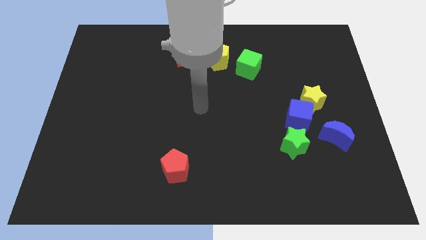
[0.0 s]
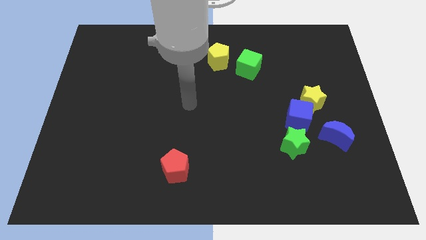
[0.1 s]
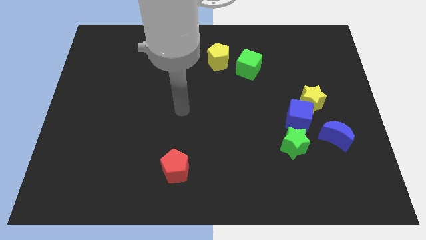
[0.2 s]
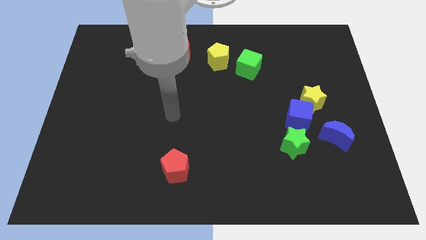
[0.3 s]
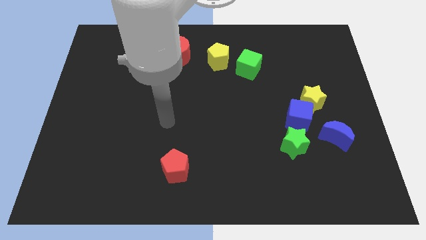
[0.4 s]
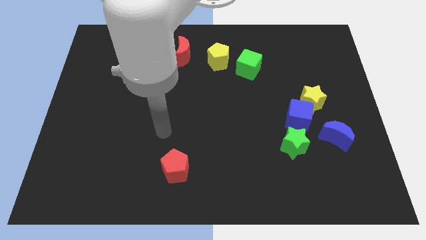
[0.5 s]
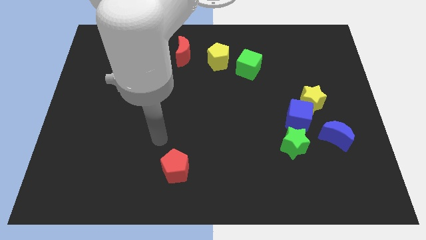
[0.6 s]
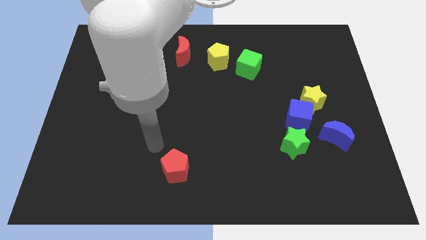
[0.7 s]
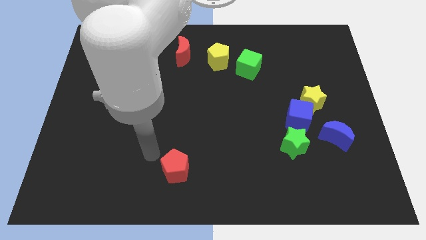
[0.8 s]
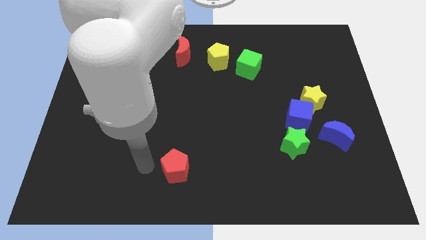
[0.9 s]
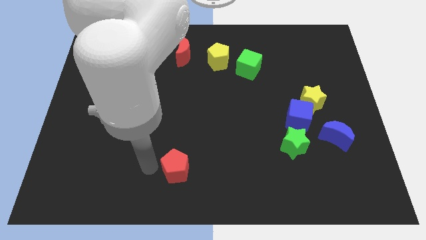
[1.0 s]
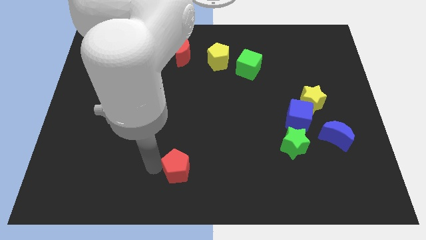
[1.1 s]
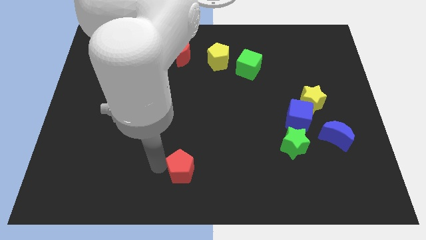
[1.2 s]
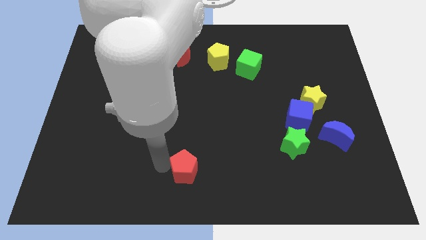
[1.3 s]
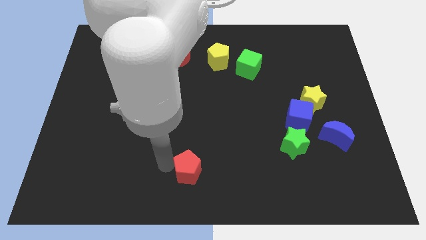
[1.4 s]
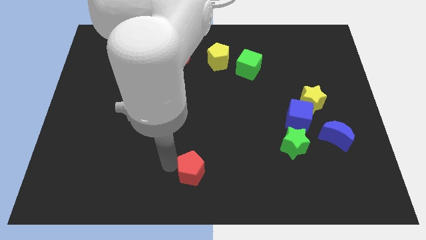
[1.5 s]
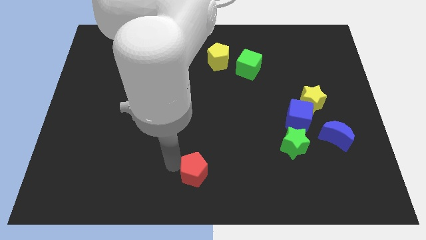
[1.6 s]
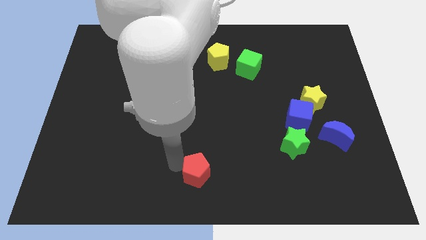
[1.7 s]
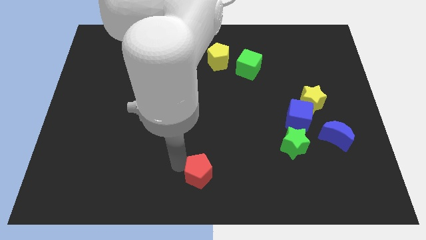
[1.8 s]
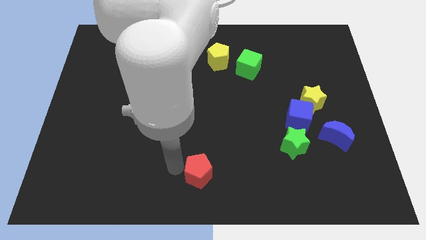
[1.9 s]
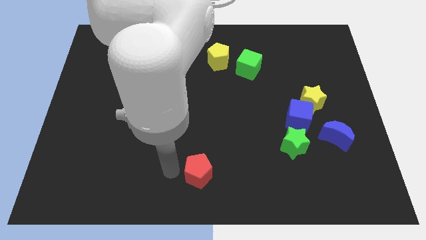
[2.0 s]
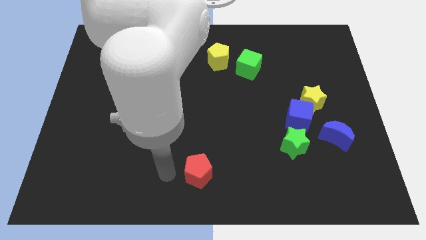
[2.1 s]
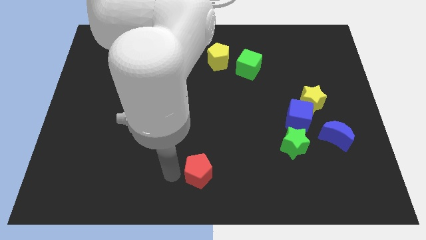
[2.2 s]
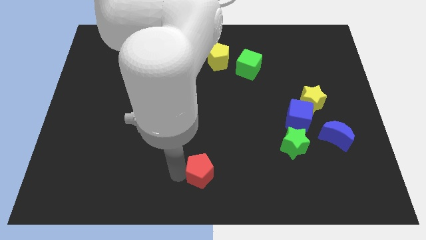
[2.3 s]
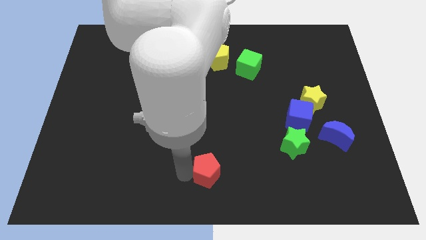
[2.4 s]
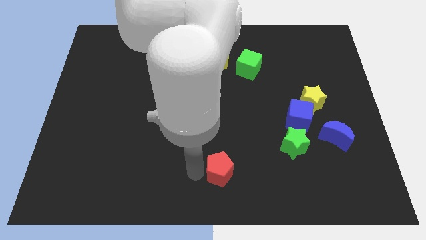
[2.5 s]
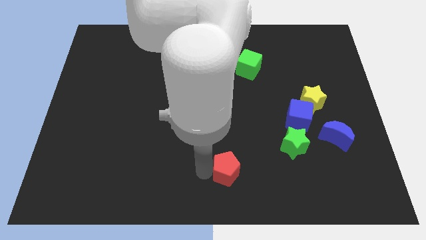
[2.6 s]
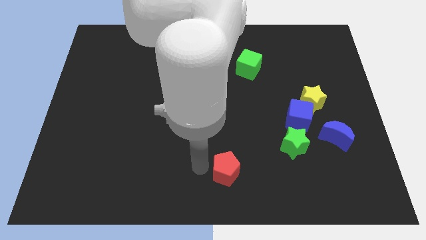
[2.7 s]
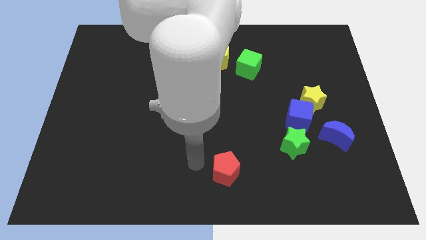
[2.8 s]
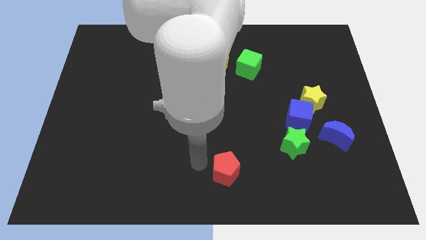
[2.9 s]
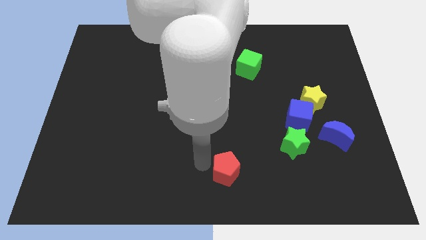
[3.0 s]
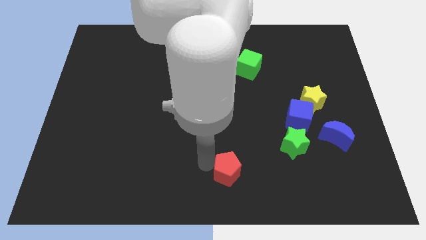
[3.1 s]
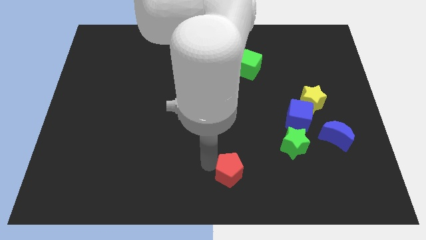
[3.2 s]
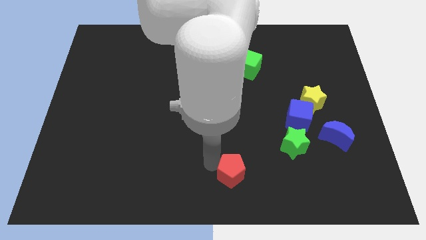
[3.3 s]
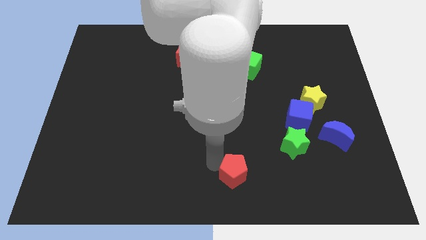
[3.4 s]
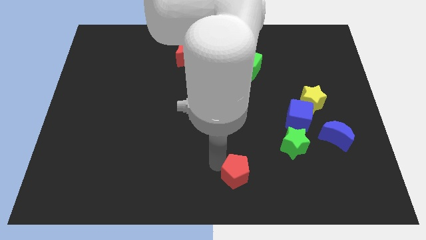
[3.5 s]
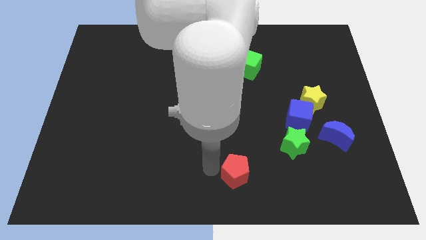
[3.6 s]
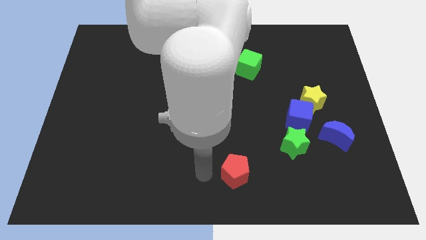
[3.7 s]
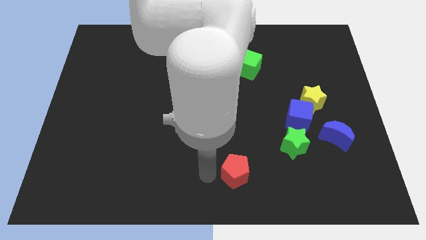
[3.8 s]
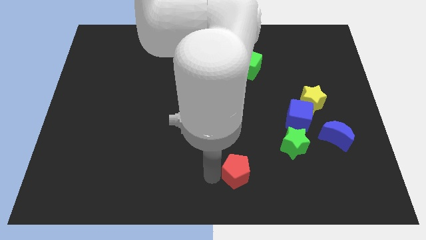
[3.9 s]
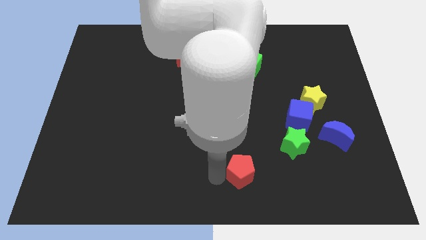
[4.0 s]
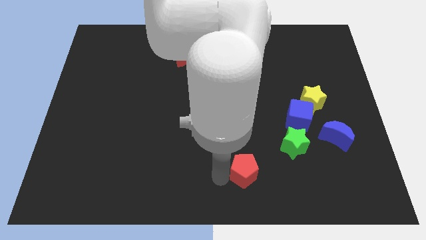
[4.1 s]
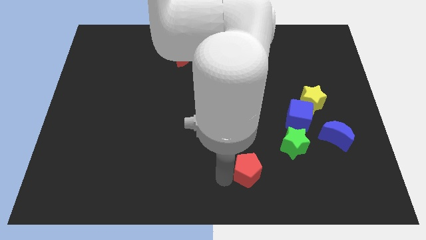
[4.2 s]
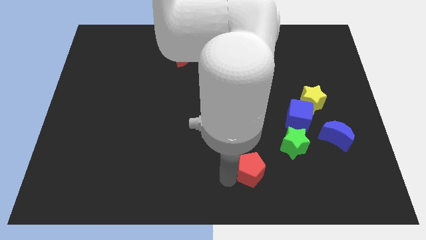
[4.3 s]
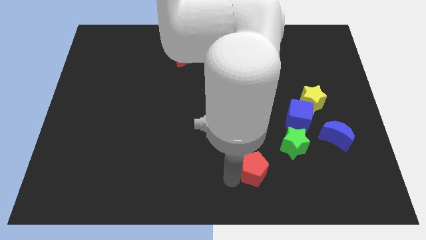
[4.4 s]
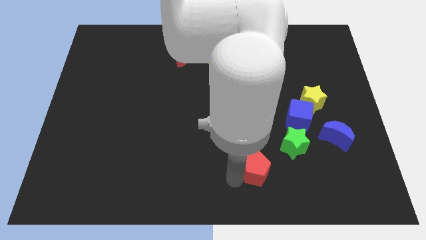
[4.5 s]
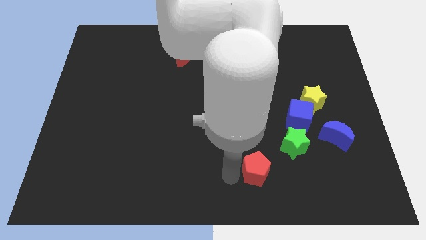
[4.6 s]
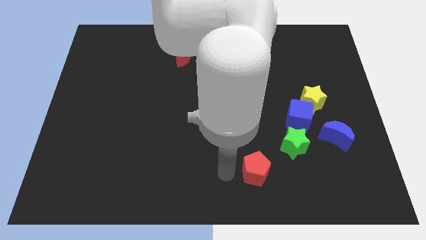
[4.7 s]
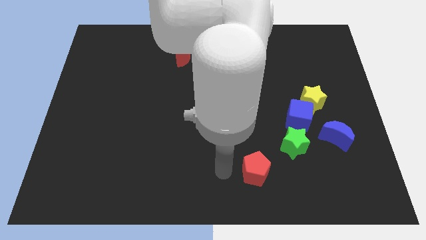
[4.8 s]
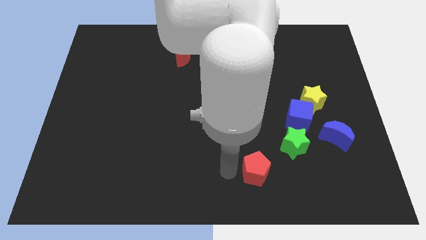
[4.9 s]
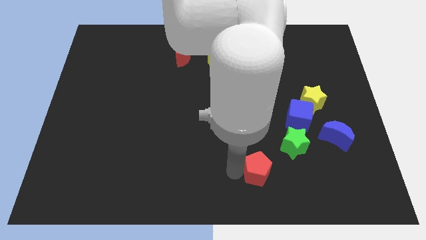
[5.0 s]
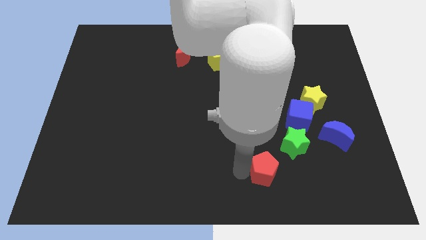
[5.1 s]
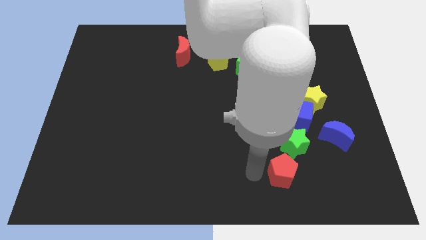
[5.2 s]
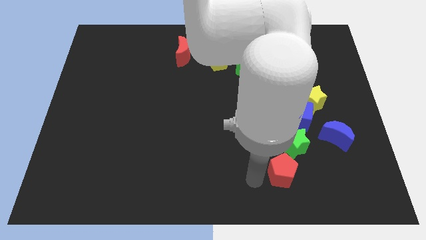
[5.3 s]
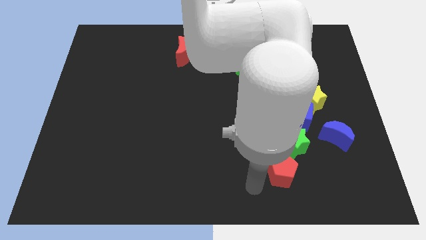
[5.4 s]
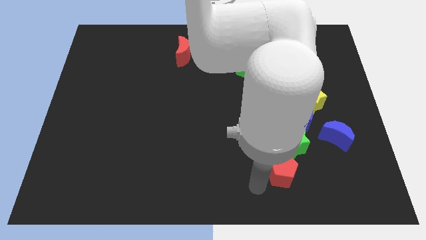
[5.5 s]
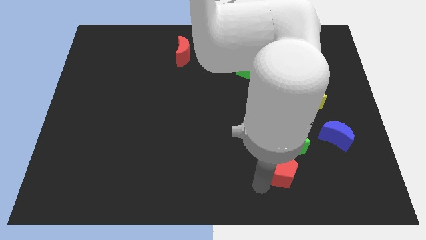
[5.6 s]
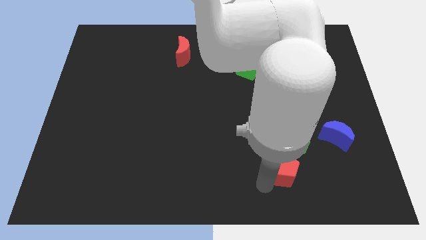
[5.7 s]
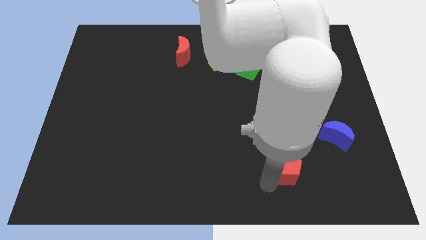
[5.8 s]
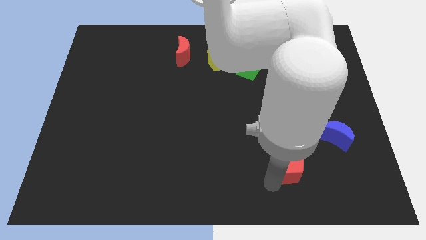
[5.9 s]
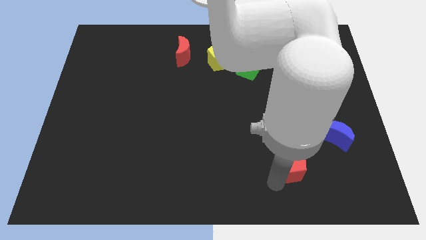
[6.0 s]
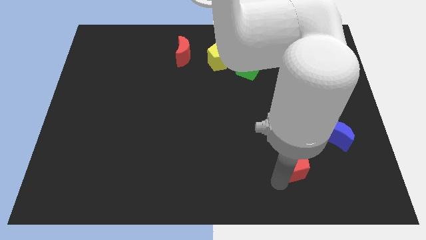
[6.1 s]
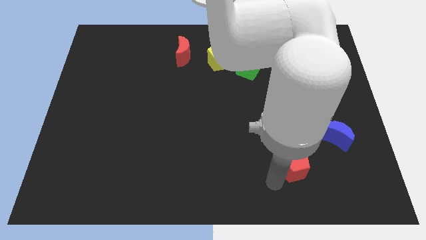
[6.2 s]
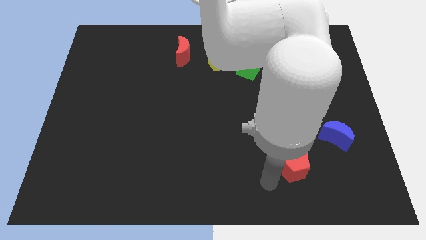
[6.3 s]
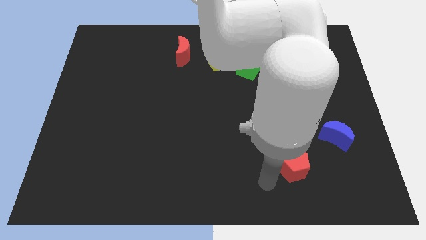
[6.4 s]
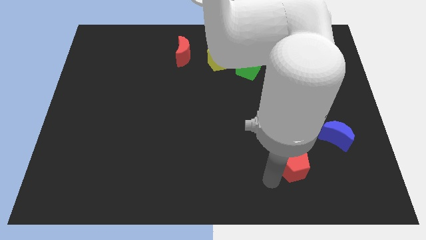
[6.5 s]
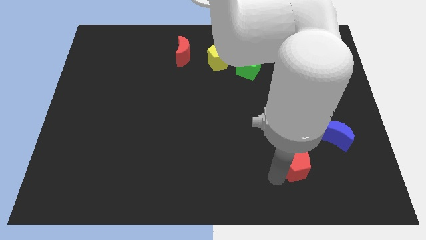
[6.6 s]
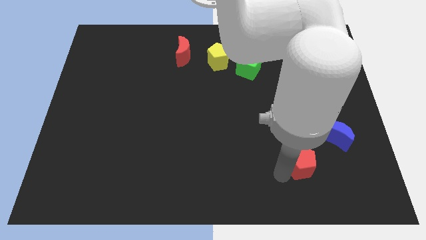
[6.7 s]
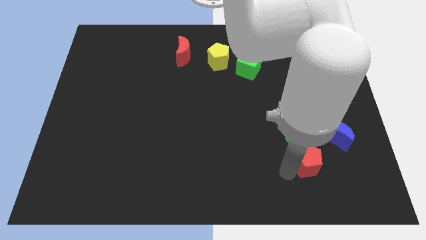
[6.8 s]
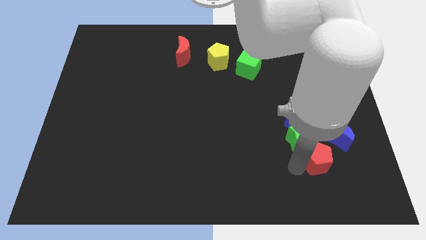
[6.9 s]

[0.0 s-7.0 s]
put the red pentagon below the yellow star
